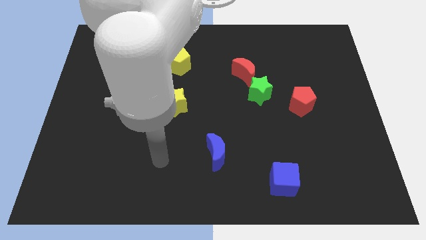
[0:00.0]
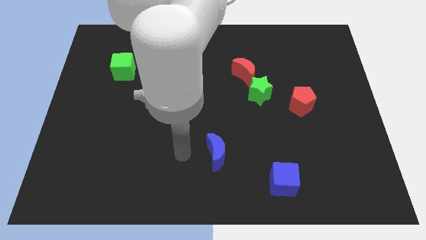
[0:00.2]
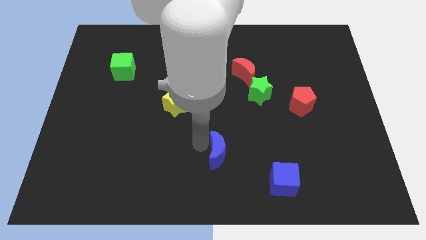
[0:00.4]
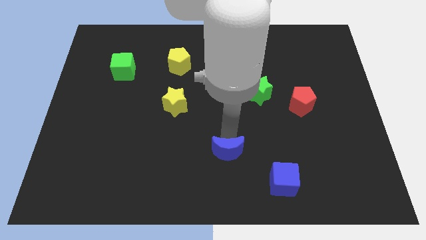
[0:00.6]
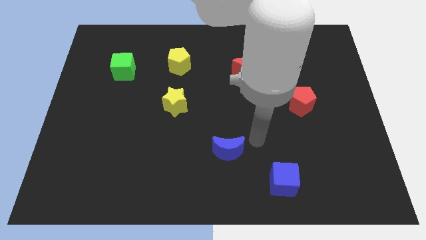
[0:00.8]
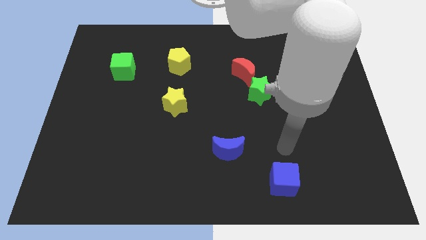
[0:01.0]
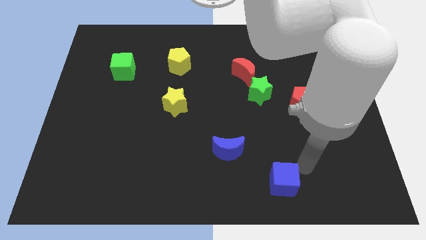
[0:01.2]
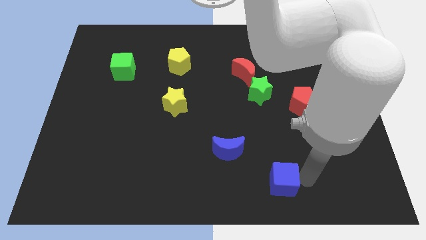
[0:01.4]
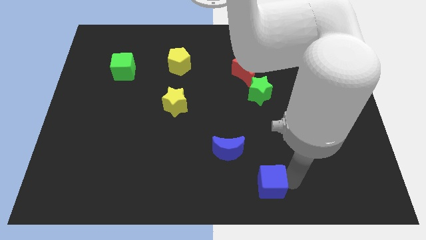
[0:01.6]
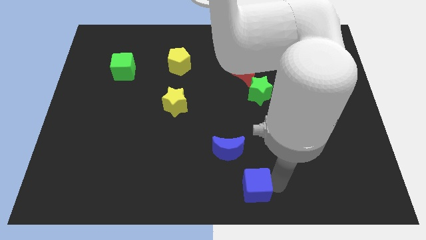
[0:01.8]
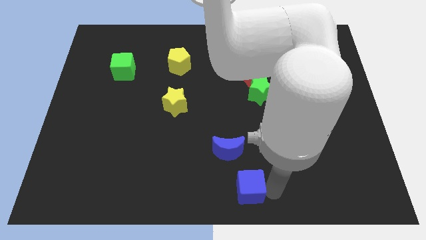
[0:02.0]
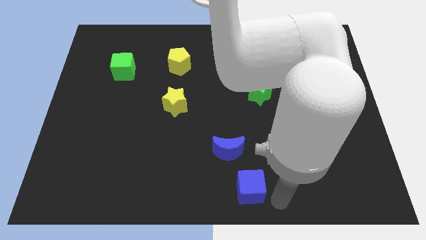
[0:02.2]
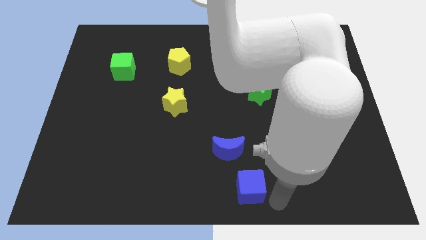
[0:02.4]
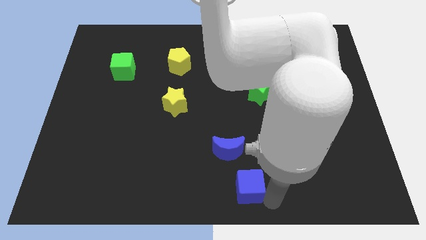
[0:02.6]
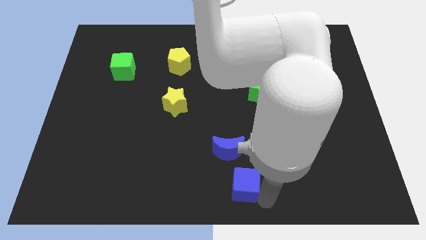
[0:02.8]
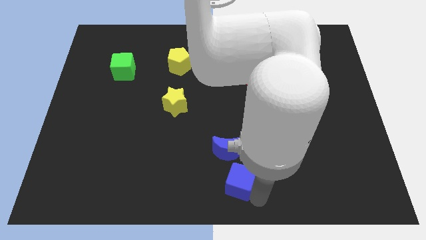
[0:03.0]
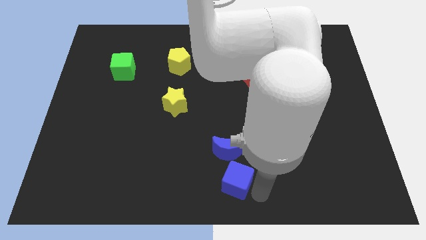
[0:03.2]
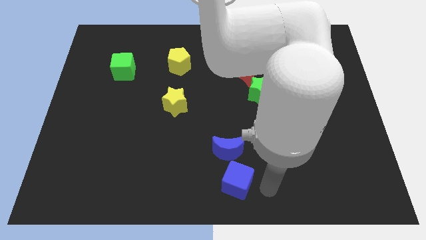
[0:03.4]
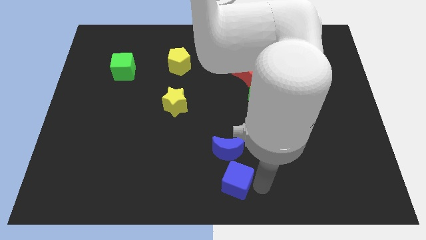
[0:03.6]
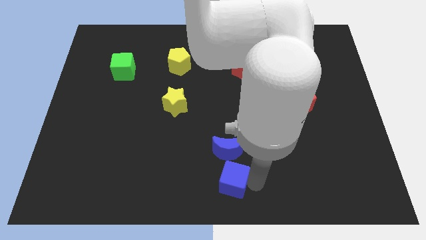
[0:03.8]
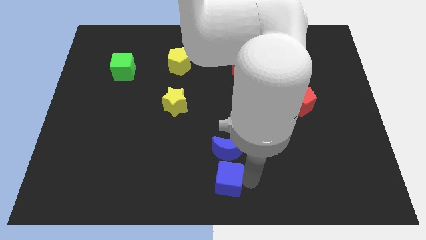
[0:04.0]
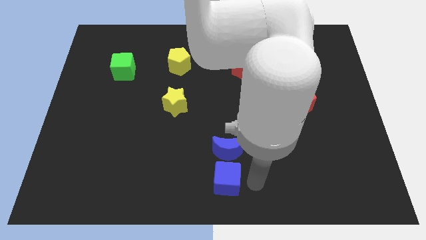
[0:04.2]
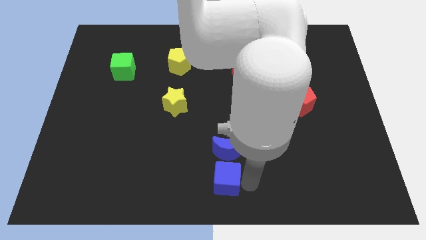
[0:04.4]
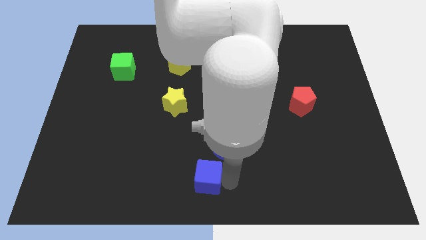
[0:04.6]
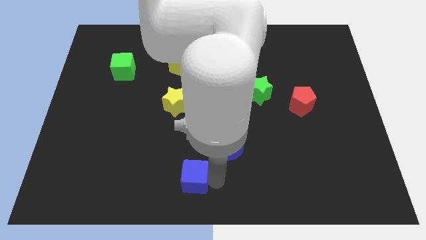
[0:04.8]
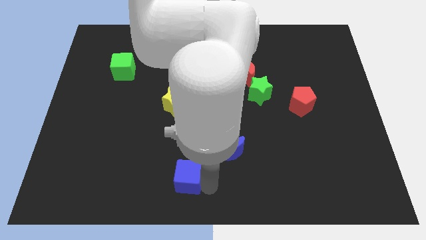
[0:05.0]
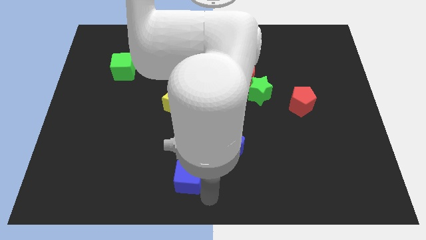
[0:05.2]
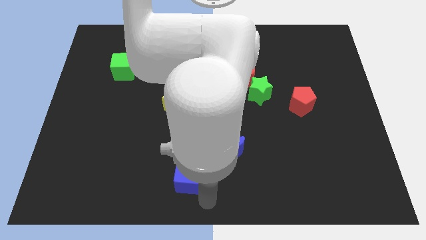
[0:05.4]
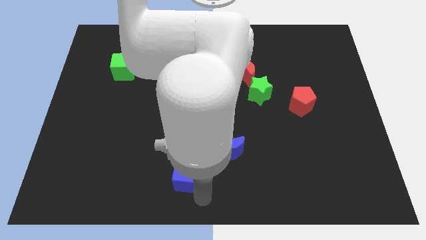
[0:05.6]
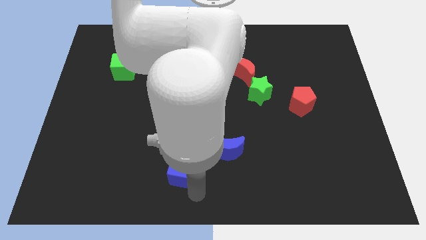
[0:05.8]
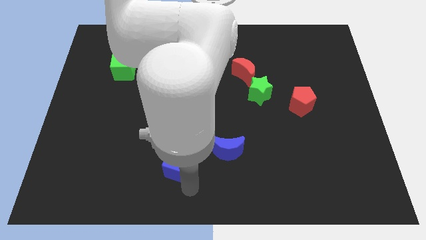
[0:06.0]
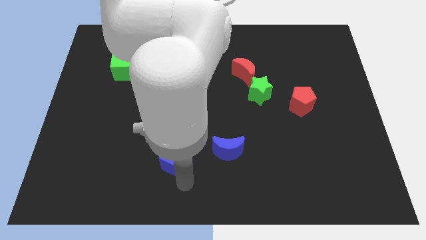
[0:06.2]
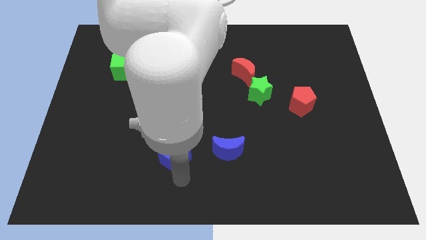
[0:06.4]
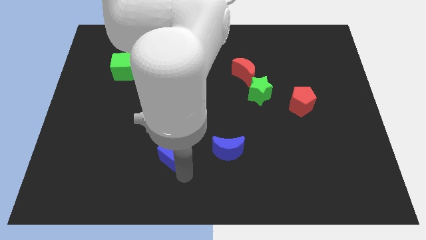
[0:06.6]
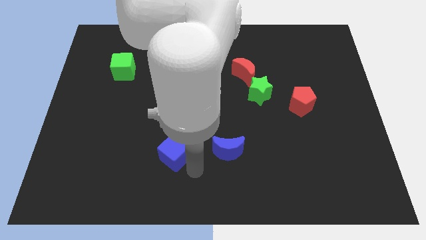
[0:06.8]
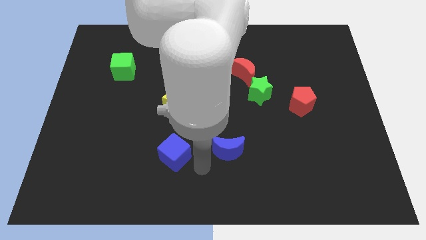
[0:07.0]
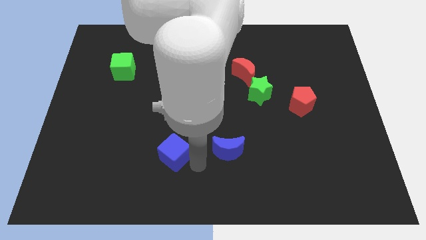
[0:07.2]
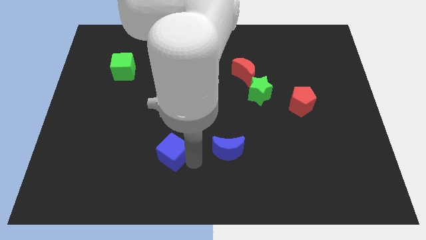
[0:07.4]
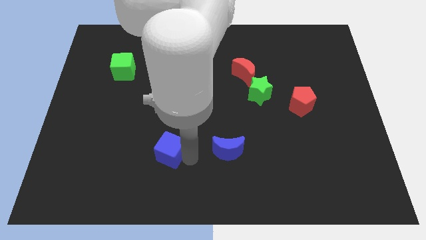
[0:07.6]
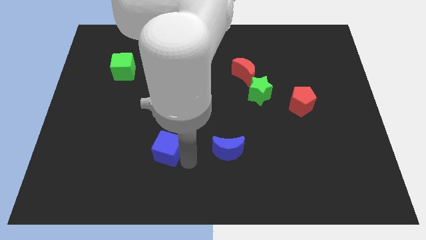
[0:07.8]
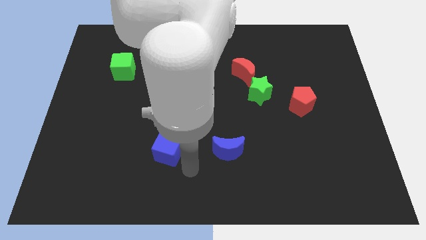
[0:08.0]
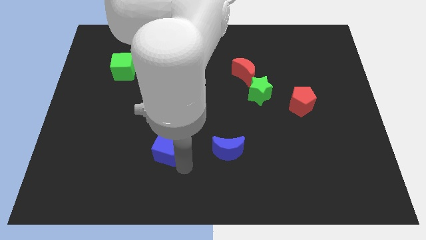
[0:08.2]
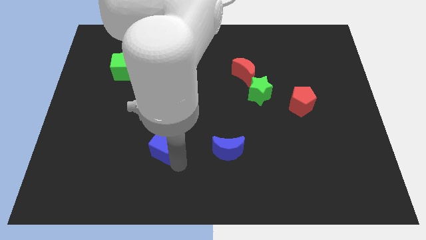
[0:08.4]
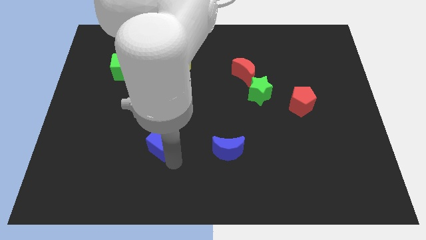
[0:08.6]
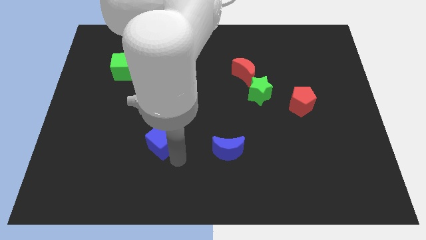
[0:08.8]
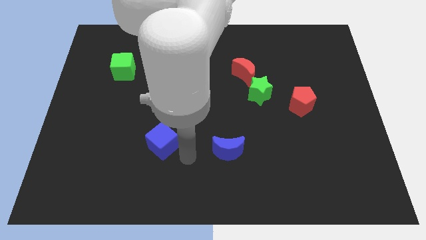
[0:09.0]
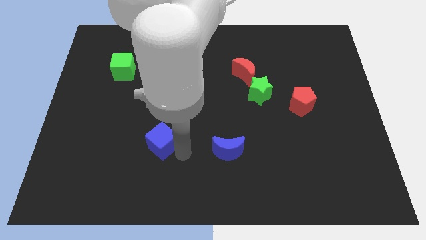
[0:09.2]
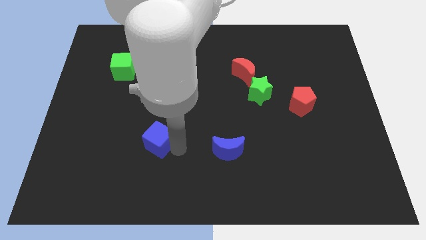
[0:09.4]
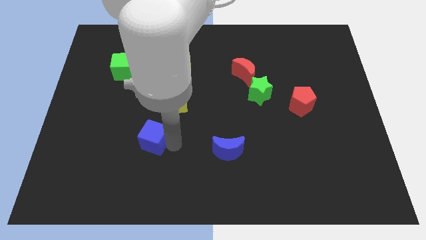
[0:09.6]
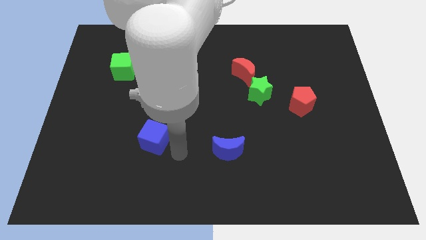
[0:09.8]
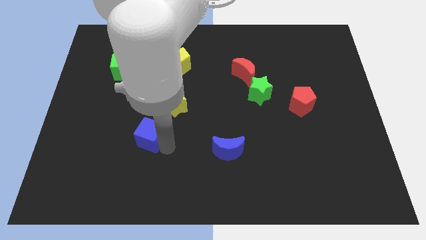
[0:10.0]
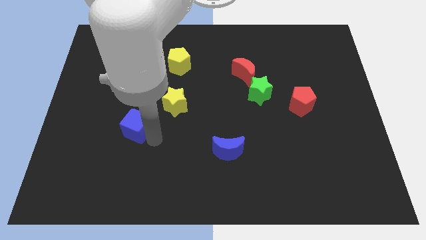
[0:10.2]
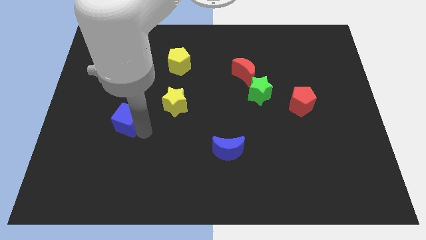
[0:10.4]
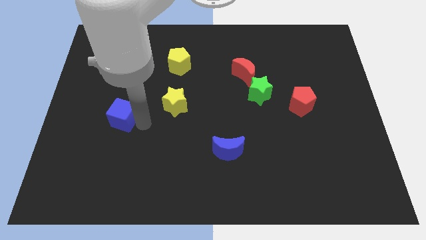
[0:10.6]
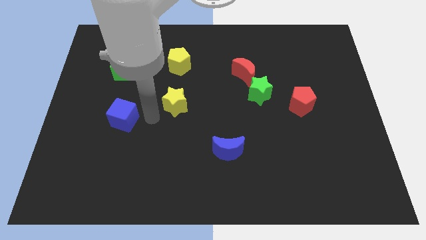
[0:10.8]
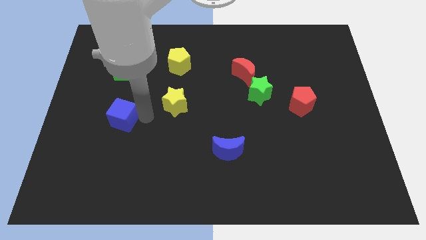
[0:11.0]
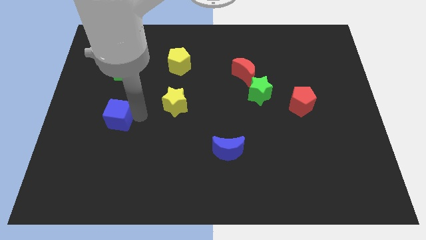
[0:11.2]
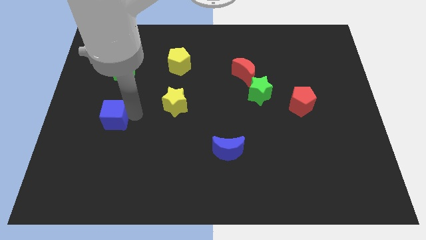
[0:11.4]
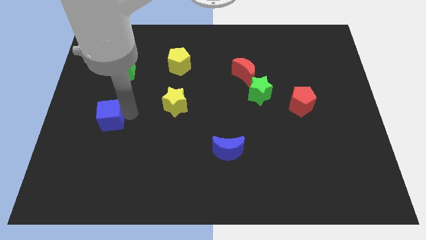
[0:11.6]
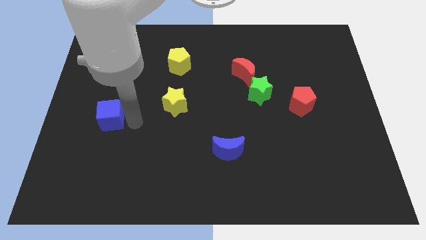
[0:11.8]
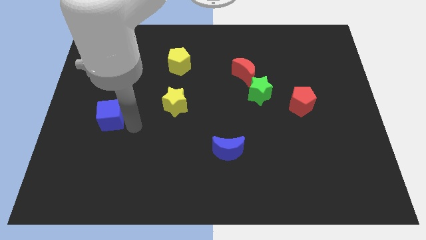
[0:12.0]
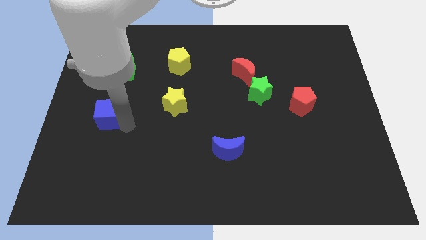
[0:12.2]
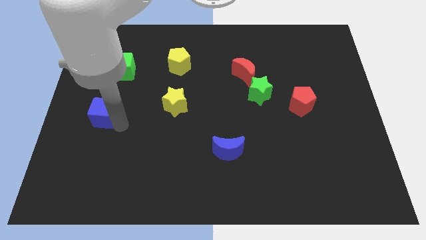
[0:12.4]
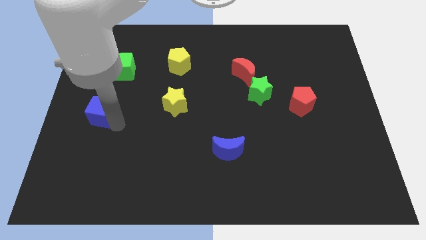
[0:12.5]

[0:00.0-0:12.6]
push the blue cube to the left side of the board

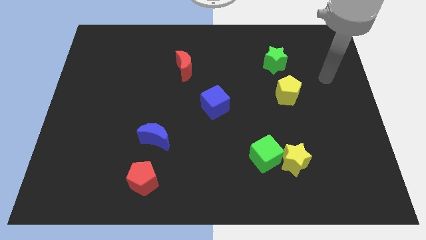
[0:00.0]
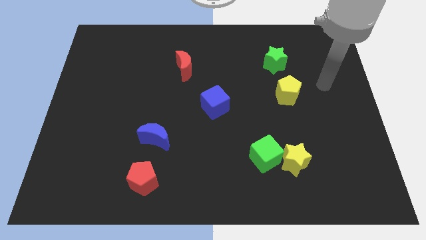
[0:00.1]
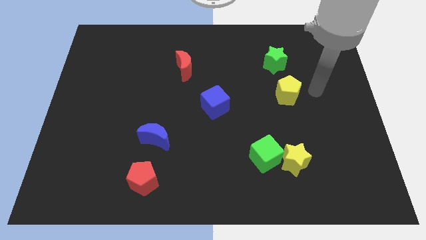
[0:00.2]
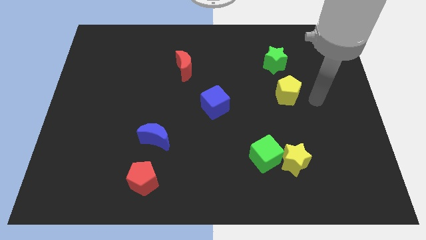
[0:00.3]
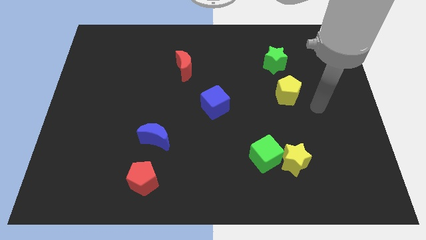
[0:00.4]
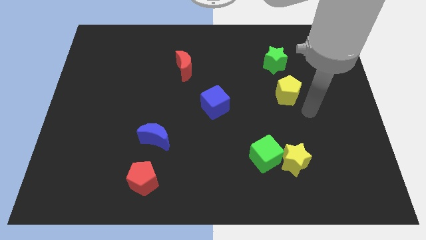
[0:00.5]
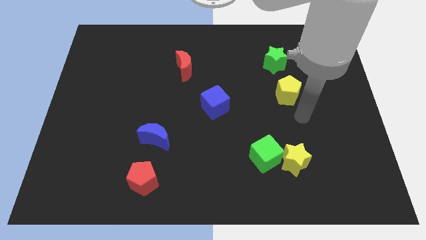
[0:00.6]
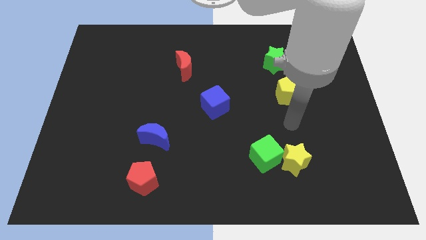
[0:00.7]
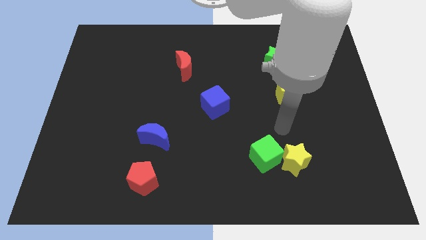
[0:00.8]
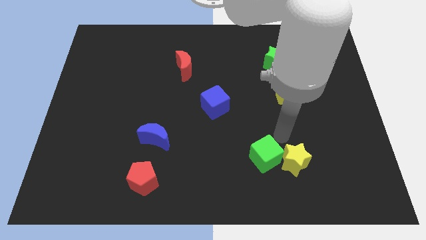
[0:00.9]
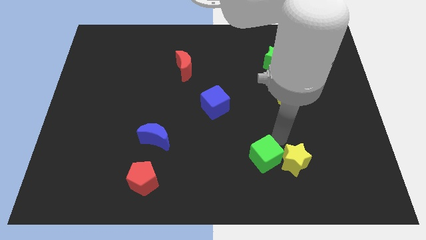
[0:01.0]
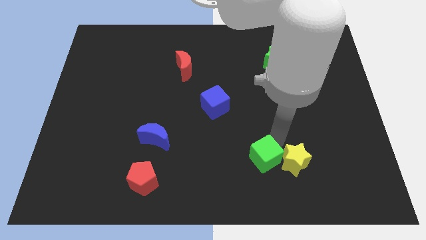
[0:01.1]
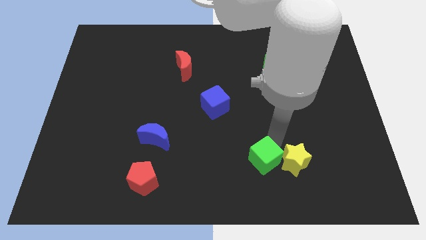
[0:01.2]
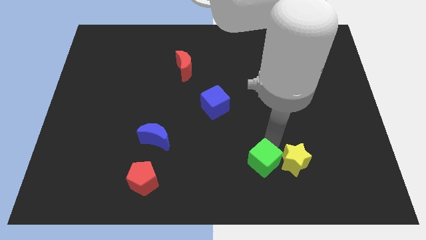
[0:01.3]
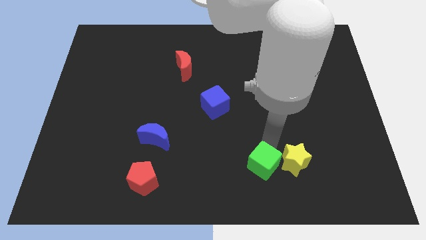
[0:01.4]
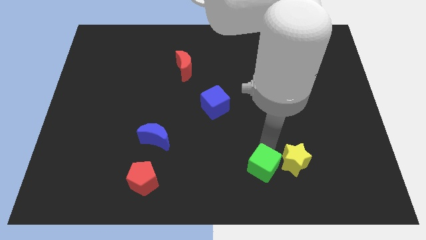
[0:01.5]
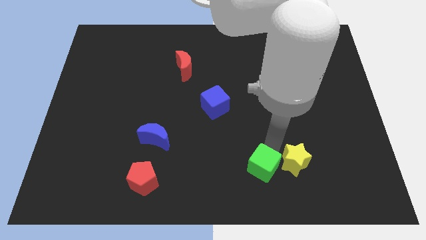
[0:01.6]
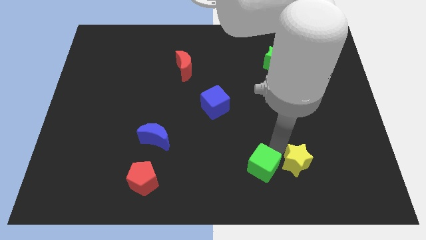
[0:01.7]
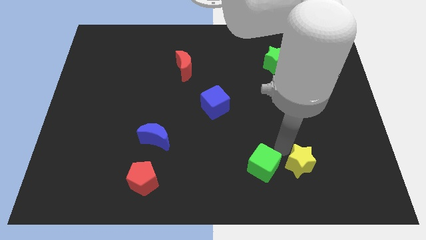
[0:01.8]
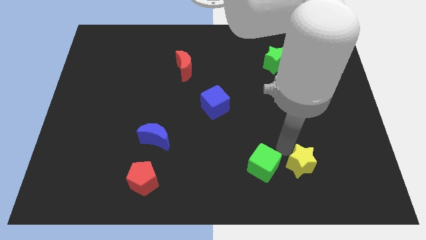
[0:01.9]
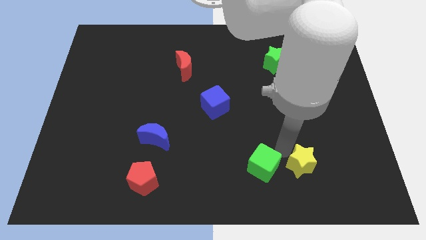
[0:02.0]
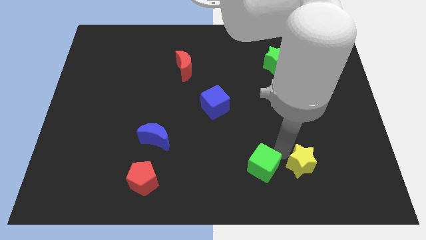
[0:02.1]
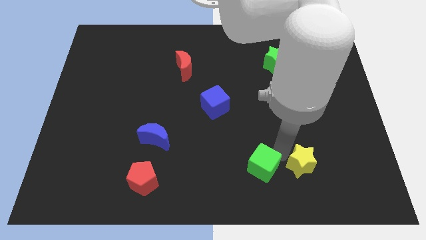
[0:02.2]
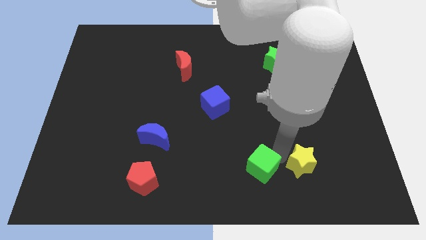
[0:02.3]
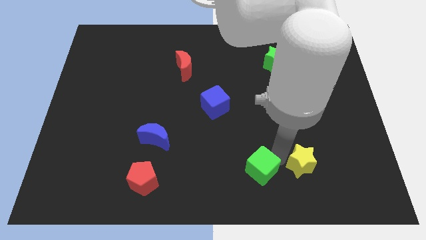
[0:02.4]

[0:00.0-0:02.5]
slide the green cube to the bottom
